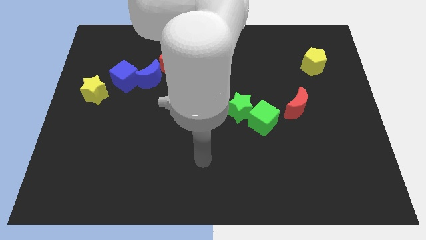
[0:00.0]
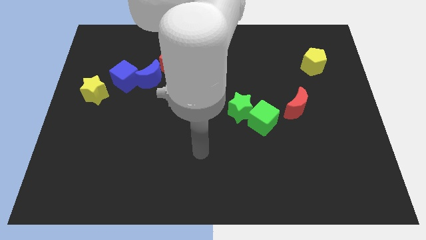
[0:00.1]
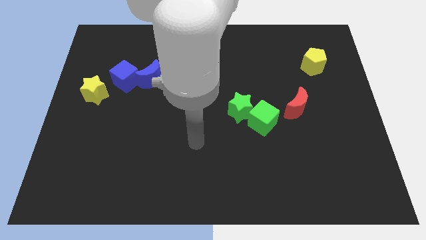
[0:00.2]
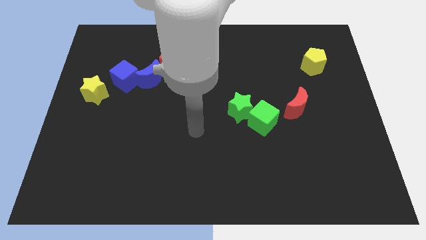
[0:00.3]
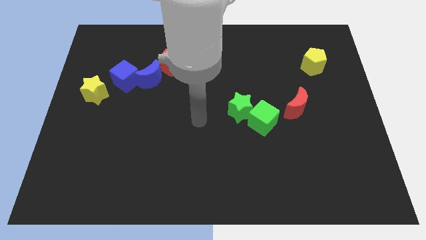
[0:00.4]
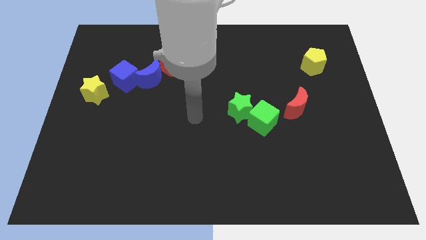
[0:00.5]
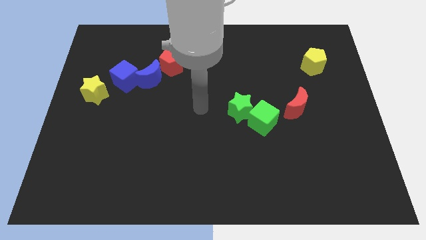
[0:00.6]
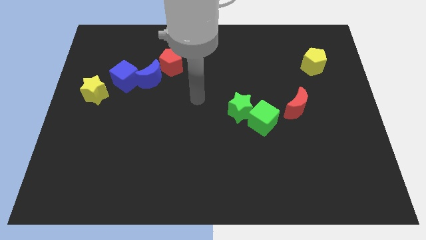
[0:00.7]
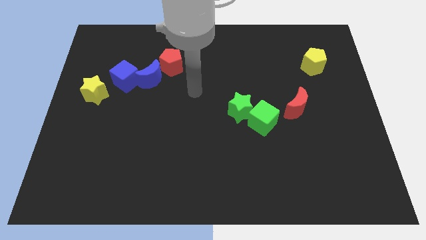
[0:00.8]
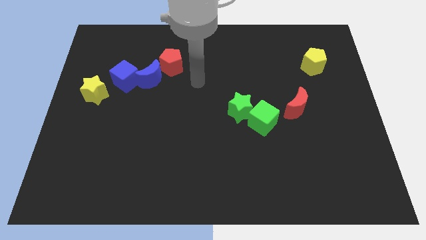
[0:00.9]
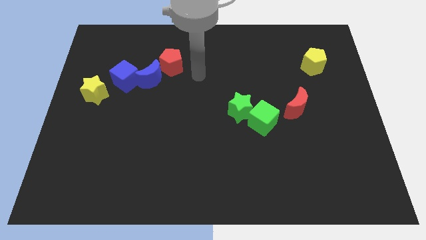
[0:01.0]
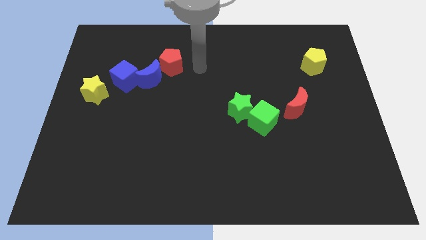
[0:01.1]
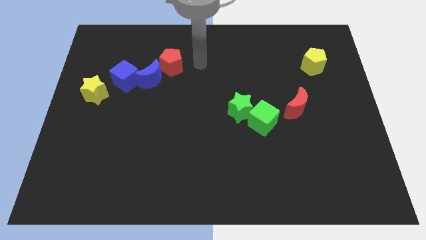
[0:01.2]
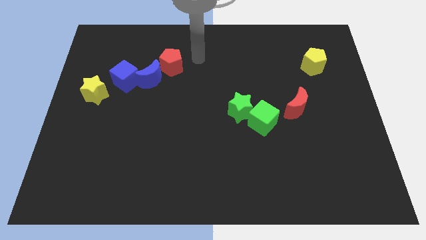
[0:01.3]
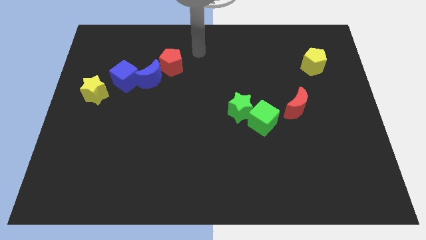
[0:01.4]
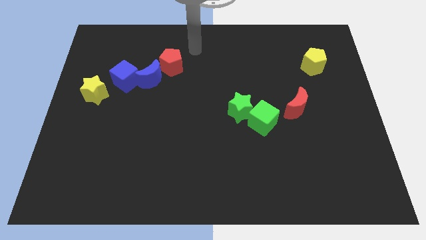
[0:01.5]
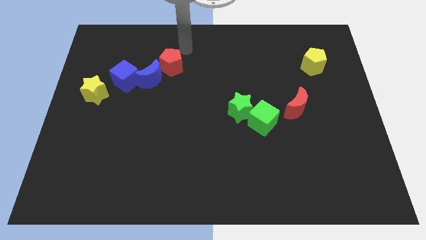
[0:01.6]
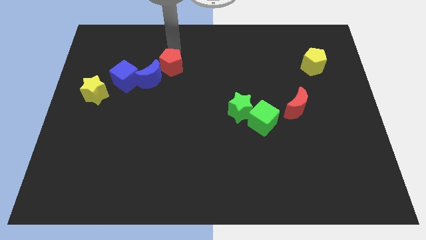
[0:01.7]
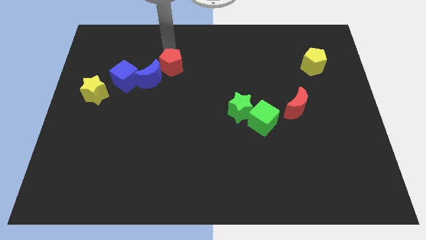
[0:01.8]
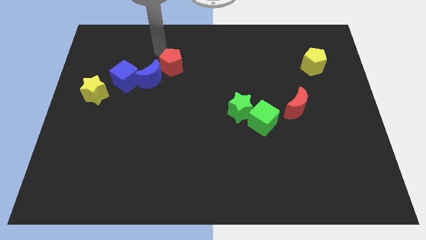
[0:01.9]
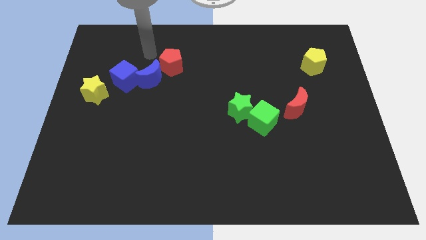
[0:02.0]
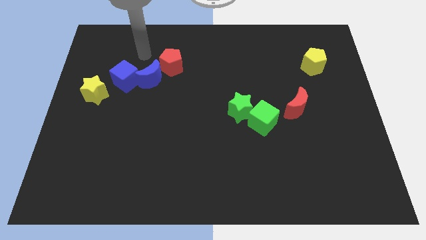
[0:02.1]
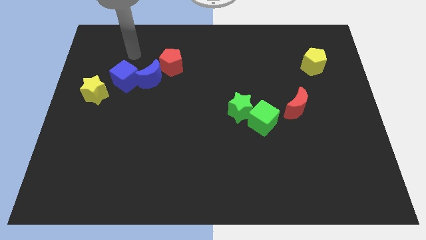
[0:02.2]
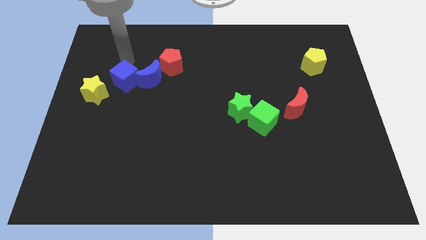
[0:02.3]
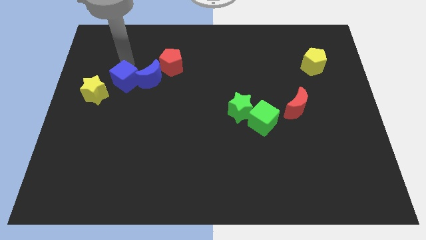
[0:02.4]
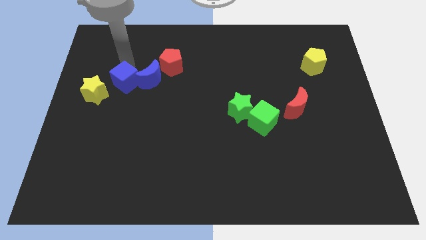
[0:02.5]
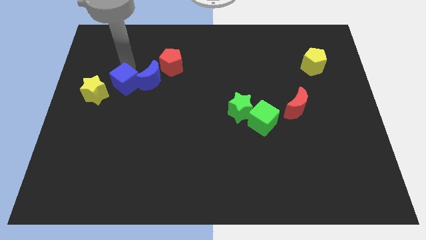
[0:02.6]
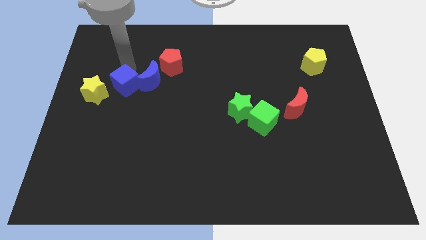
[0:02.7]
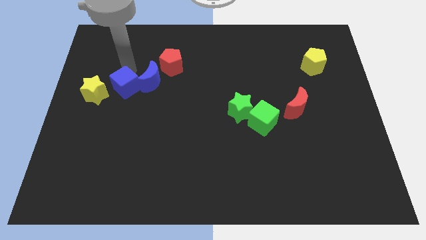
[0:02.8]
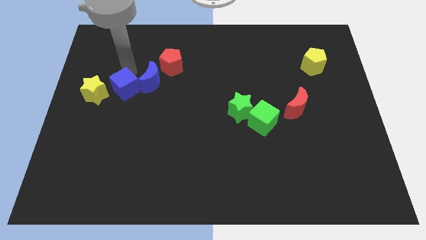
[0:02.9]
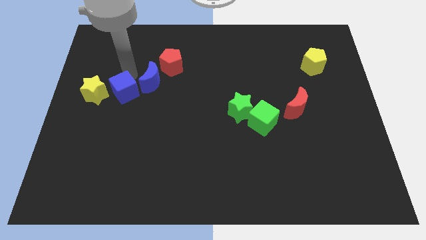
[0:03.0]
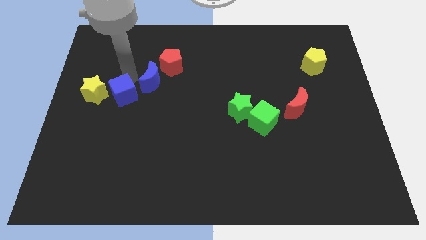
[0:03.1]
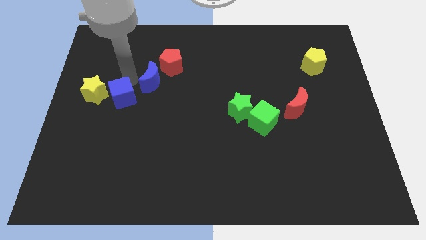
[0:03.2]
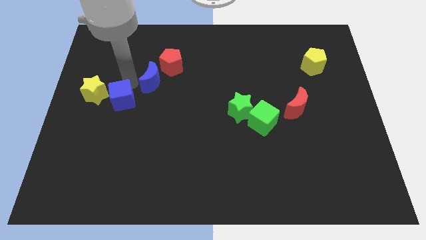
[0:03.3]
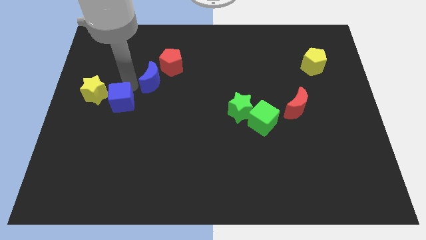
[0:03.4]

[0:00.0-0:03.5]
slide the blue cube downwards slightly

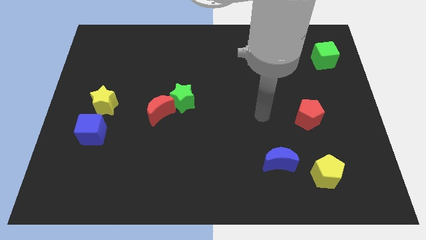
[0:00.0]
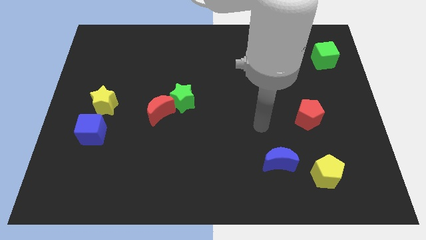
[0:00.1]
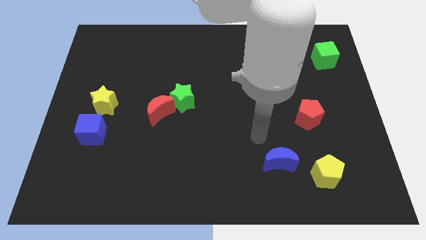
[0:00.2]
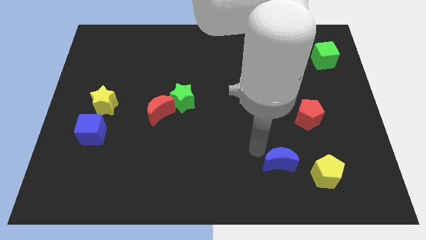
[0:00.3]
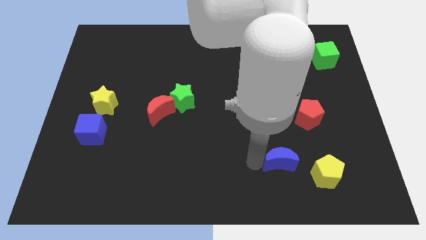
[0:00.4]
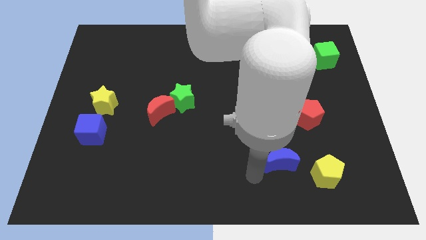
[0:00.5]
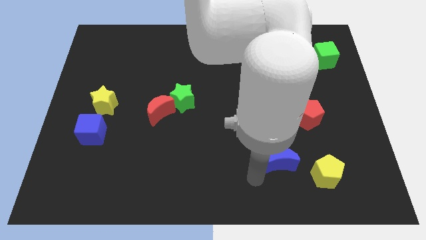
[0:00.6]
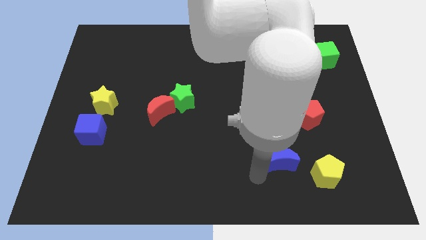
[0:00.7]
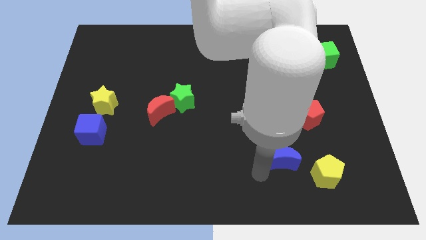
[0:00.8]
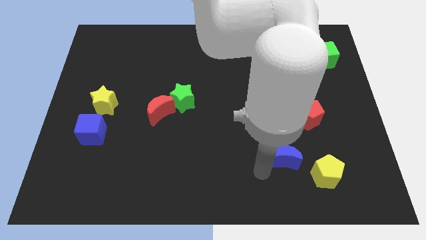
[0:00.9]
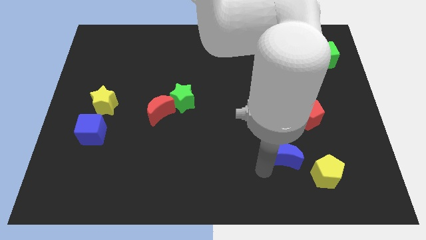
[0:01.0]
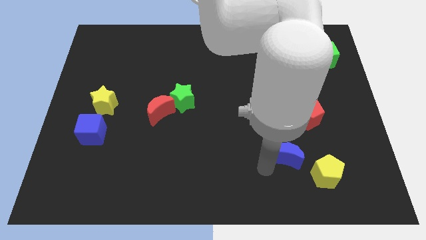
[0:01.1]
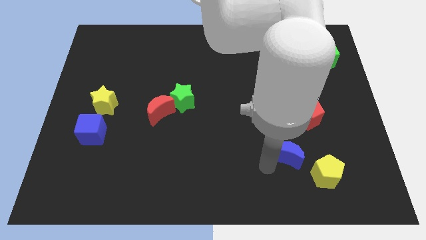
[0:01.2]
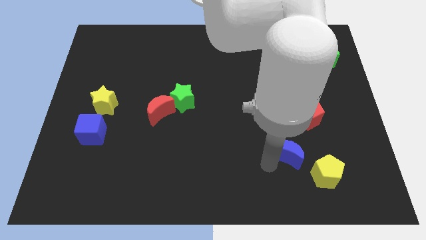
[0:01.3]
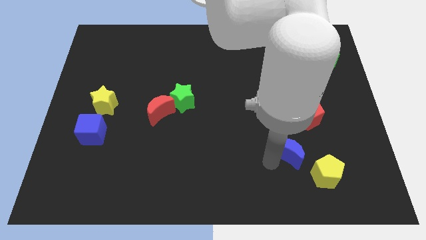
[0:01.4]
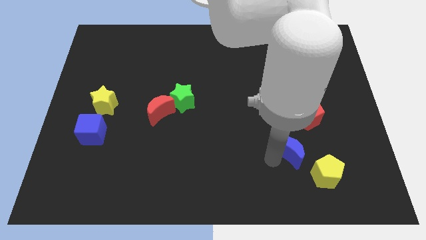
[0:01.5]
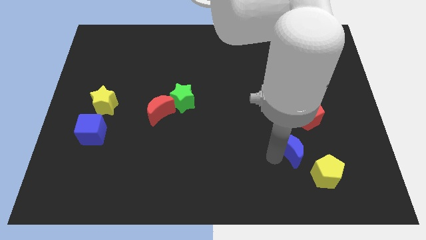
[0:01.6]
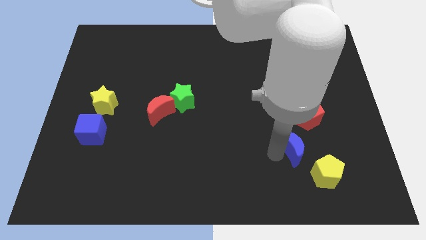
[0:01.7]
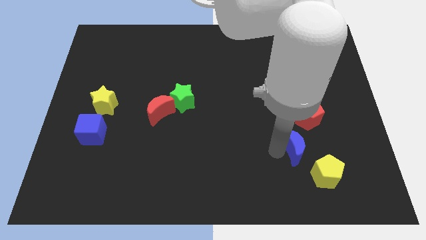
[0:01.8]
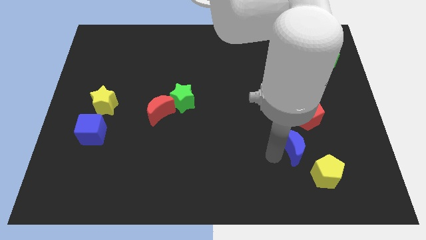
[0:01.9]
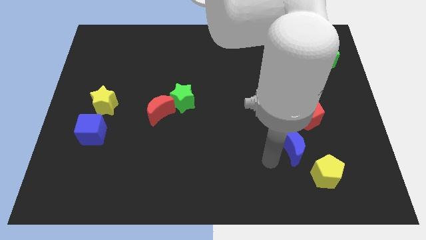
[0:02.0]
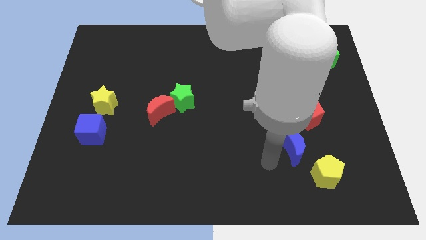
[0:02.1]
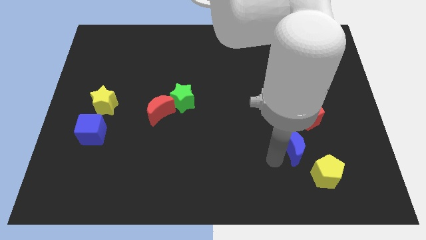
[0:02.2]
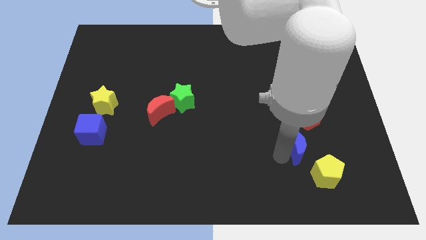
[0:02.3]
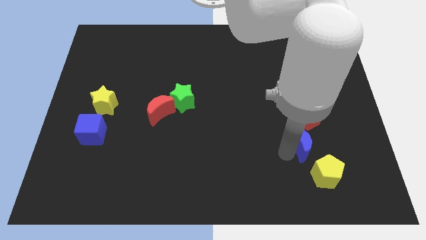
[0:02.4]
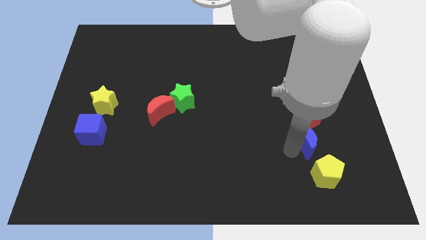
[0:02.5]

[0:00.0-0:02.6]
slide the blue moon a little bit upwards and right

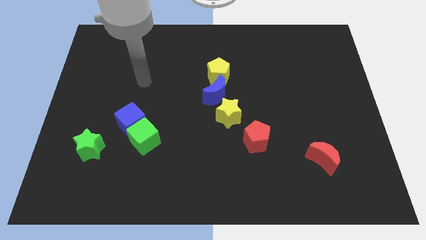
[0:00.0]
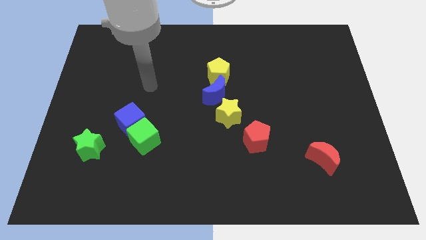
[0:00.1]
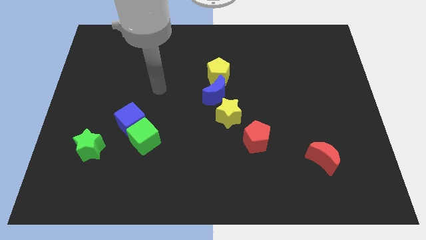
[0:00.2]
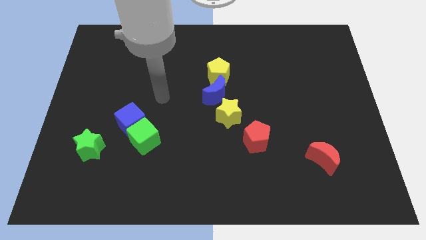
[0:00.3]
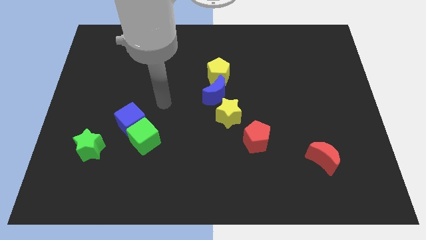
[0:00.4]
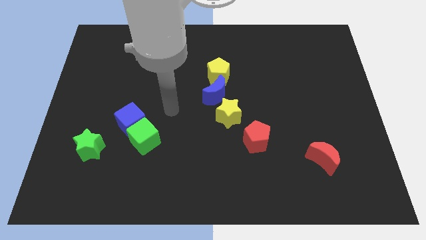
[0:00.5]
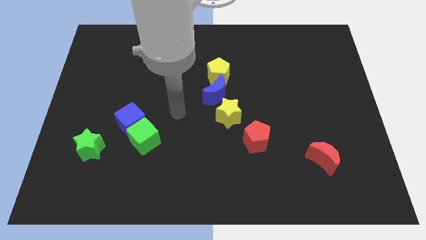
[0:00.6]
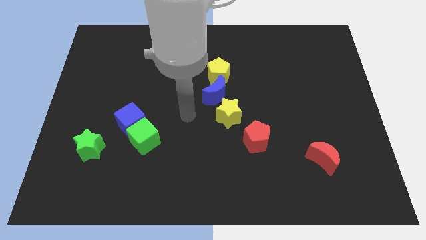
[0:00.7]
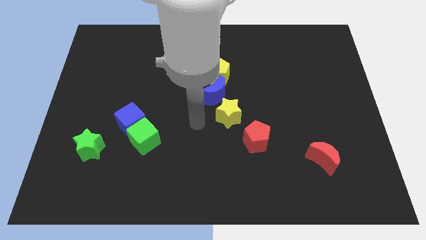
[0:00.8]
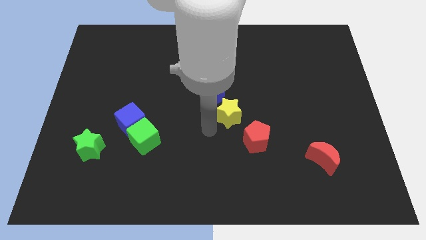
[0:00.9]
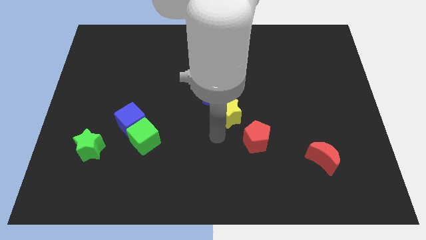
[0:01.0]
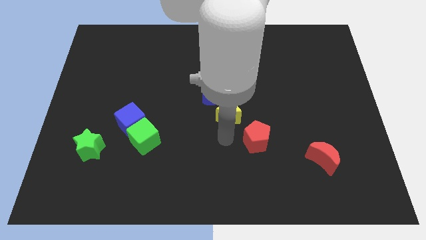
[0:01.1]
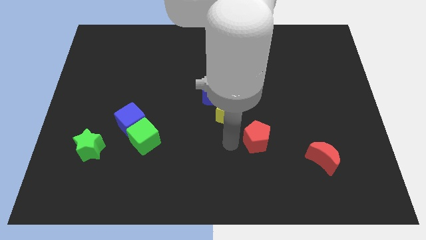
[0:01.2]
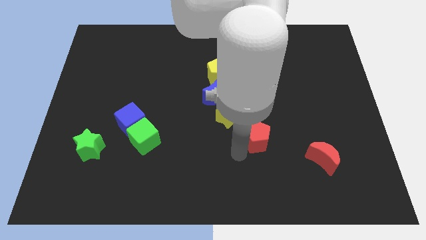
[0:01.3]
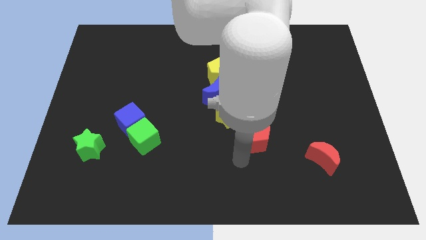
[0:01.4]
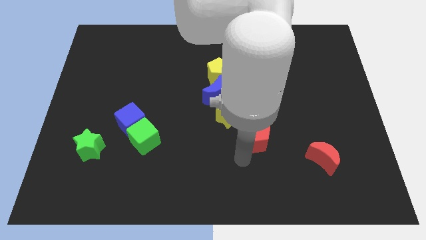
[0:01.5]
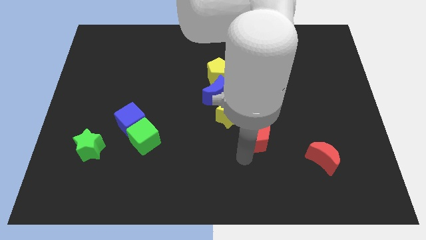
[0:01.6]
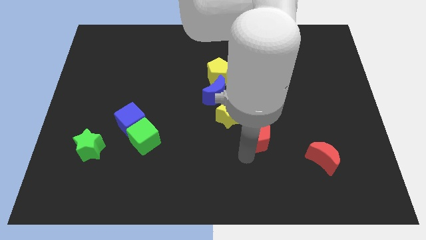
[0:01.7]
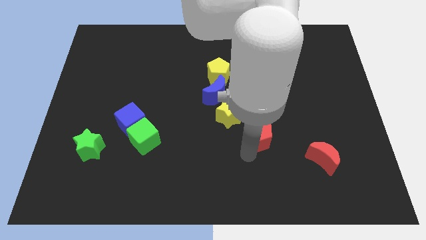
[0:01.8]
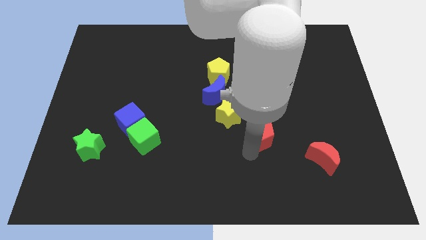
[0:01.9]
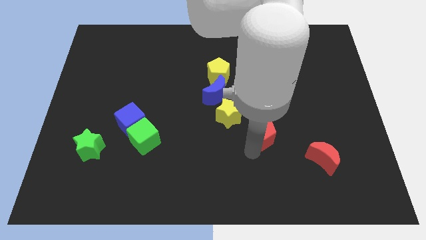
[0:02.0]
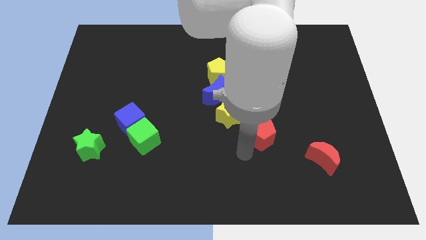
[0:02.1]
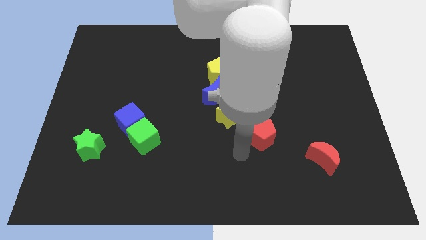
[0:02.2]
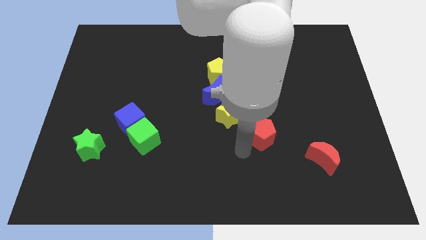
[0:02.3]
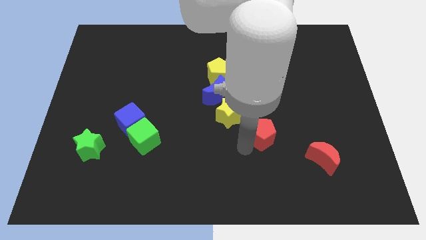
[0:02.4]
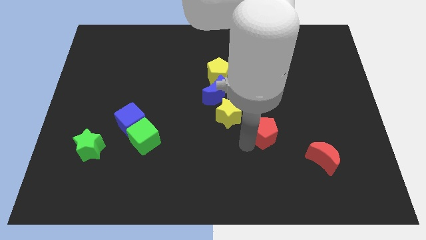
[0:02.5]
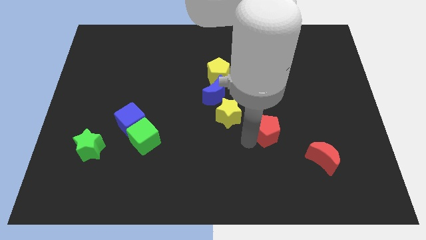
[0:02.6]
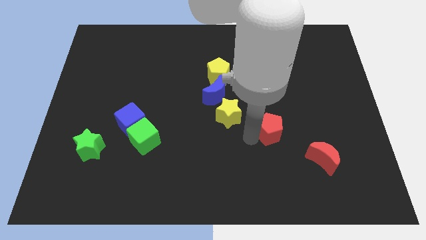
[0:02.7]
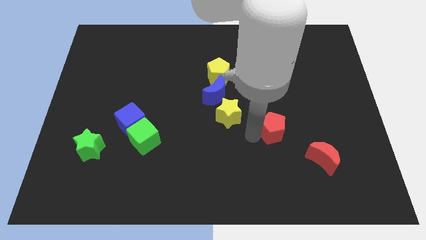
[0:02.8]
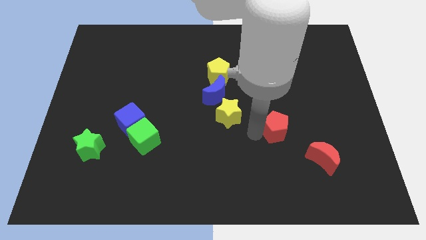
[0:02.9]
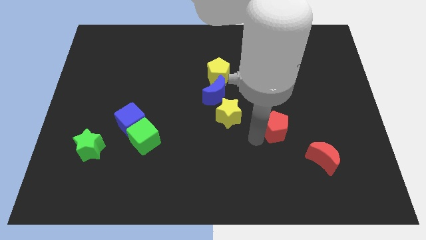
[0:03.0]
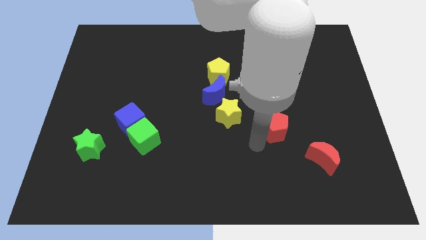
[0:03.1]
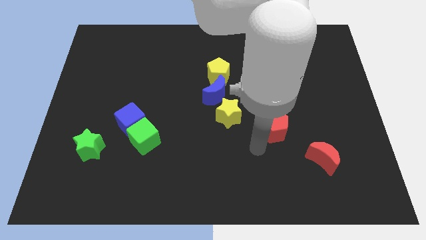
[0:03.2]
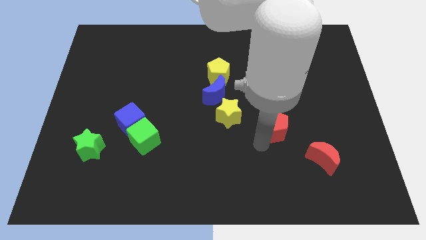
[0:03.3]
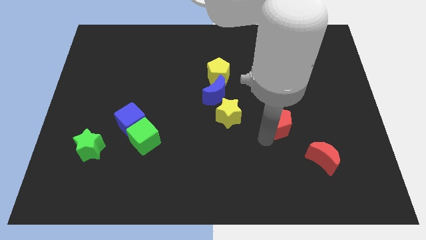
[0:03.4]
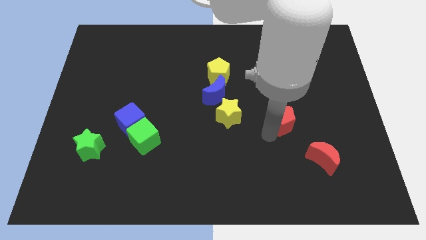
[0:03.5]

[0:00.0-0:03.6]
slightly slide the red pentagon upwards and to the right diagonally
